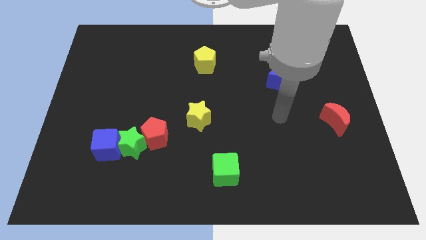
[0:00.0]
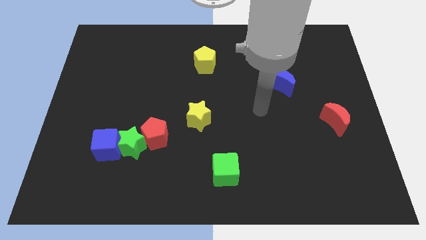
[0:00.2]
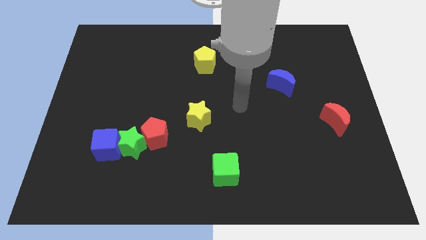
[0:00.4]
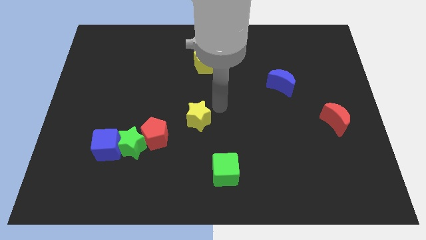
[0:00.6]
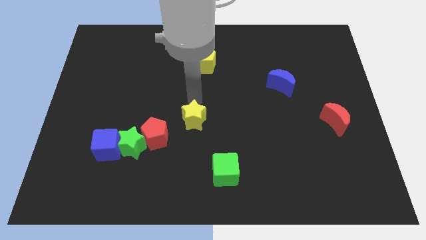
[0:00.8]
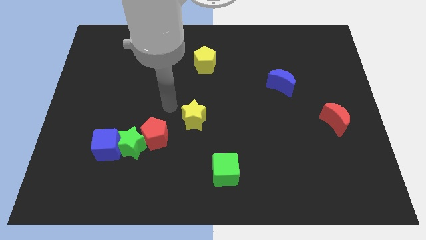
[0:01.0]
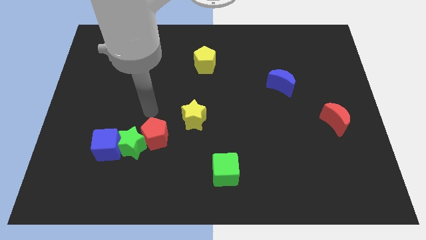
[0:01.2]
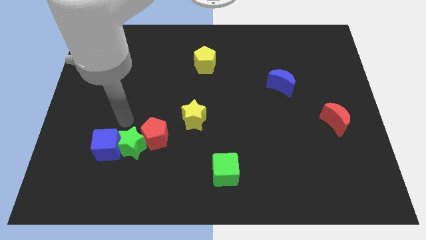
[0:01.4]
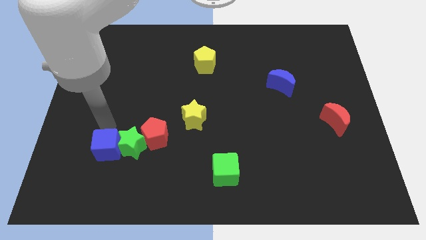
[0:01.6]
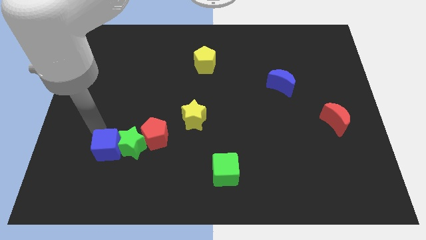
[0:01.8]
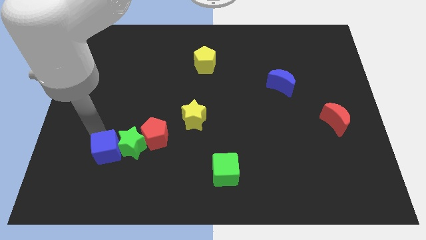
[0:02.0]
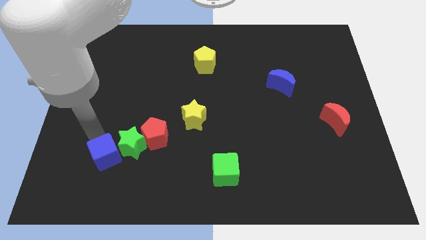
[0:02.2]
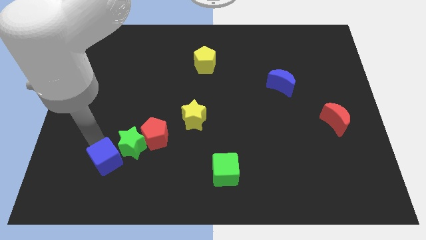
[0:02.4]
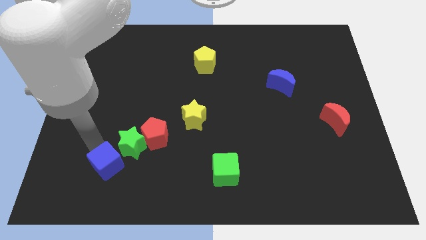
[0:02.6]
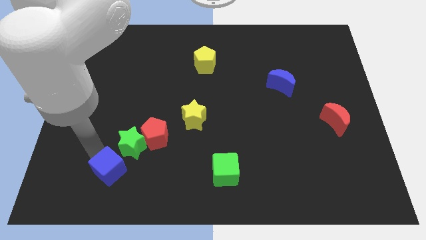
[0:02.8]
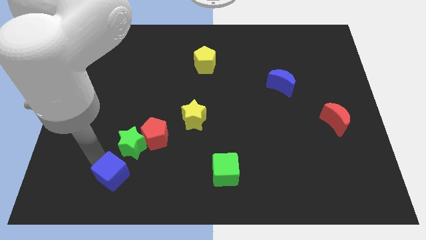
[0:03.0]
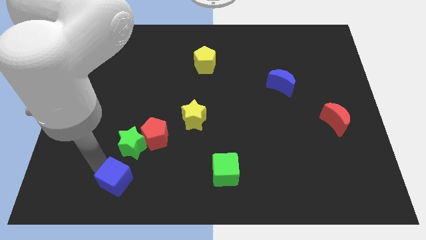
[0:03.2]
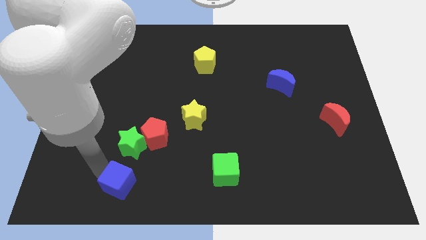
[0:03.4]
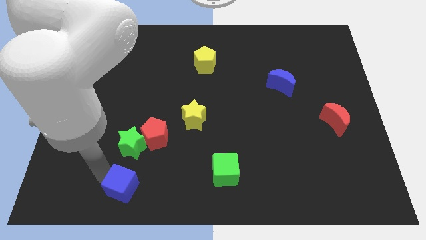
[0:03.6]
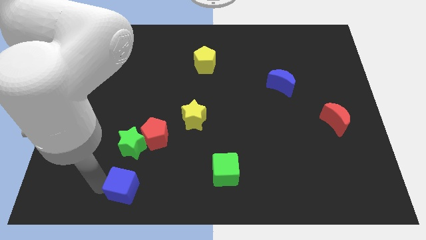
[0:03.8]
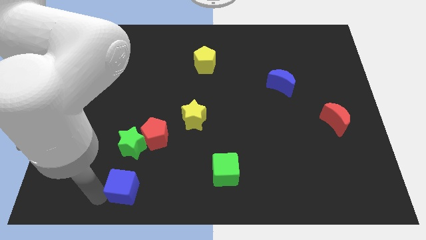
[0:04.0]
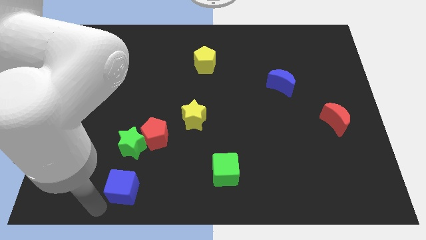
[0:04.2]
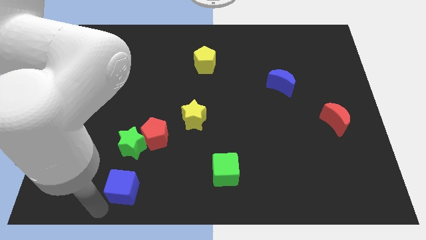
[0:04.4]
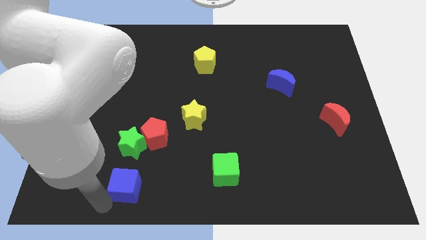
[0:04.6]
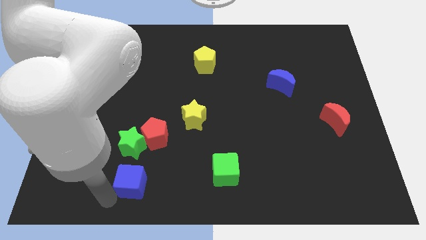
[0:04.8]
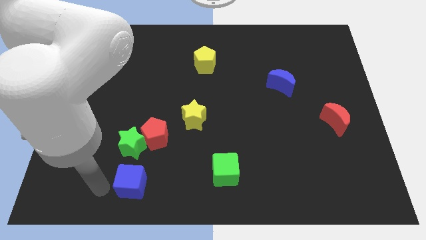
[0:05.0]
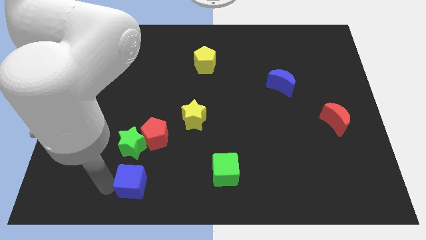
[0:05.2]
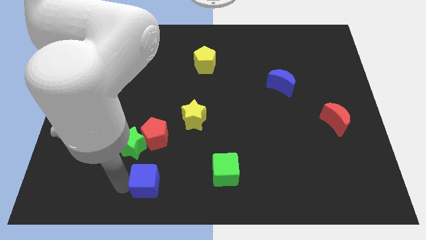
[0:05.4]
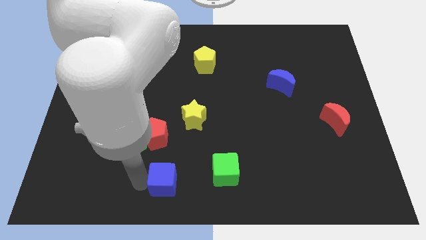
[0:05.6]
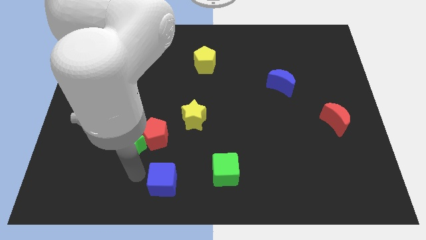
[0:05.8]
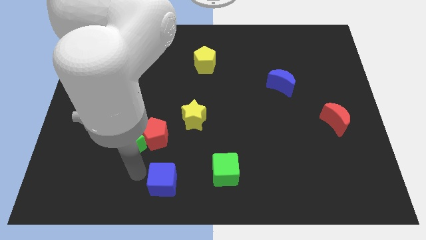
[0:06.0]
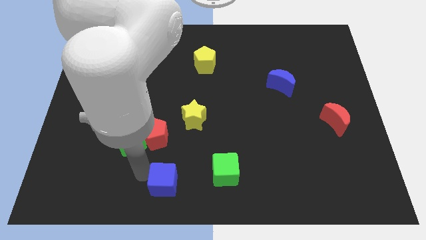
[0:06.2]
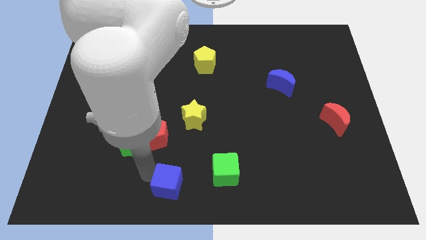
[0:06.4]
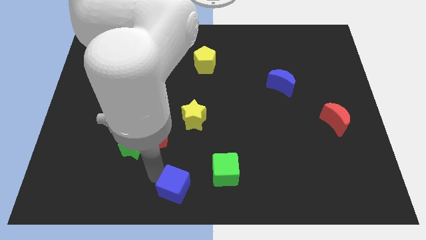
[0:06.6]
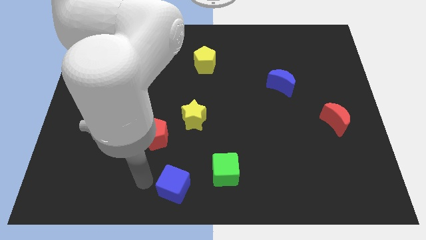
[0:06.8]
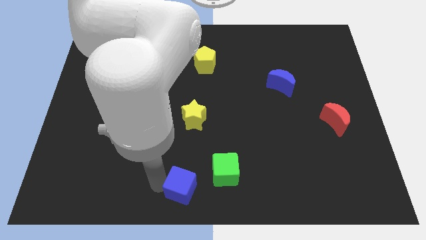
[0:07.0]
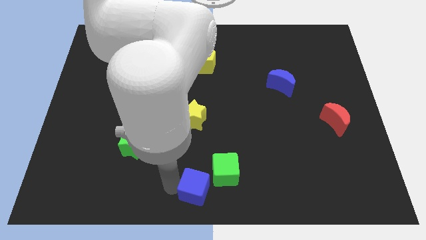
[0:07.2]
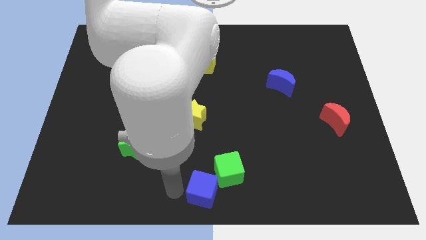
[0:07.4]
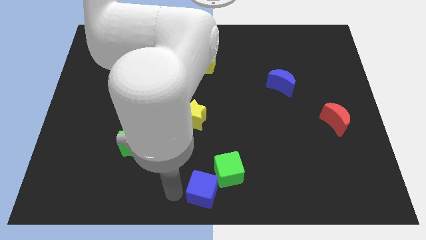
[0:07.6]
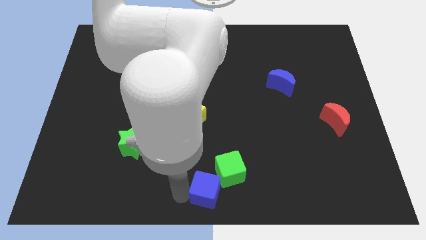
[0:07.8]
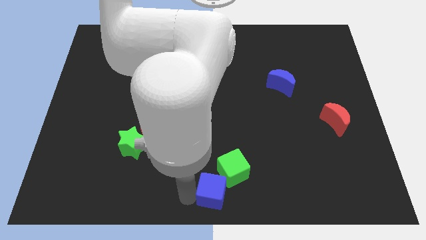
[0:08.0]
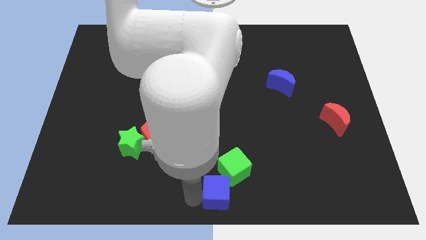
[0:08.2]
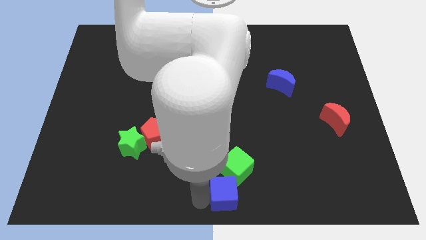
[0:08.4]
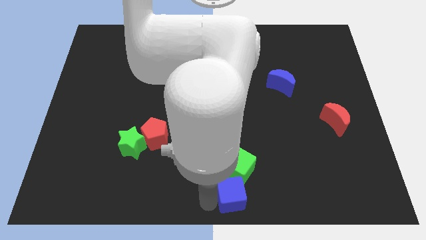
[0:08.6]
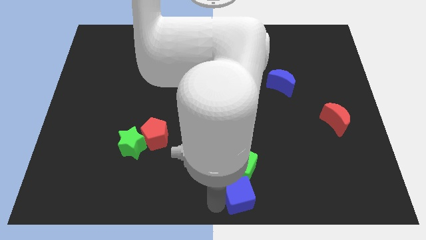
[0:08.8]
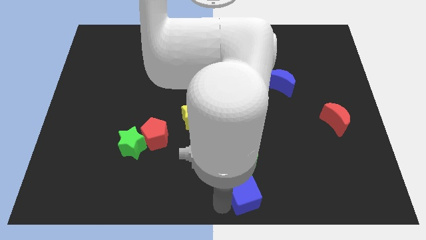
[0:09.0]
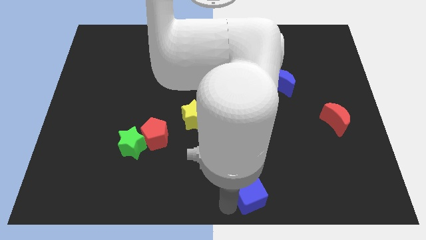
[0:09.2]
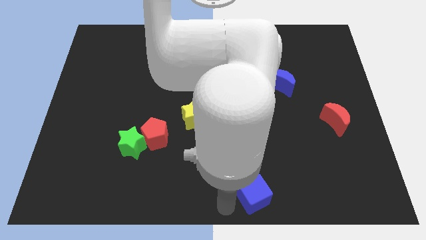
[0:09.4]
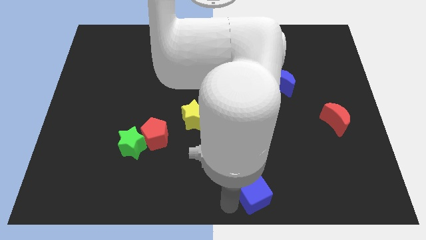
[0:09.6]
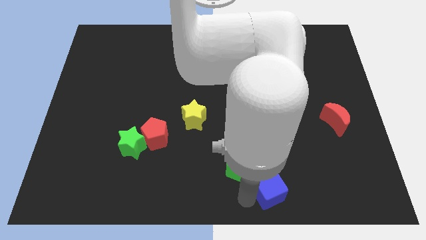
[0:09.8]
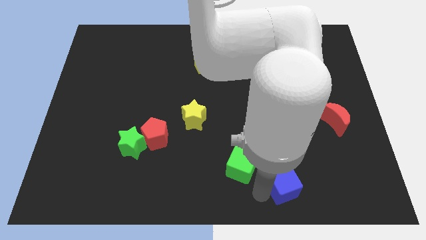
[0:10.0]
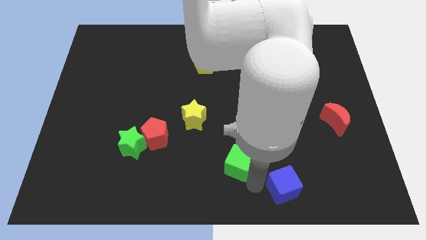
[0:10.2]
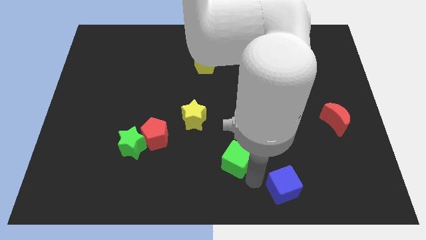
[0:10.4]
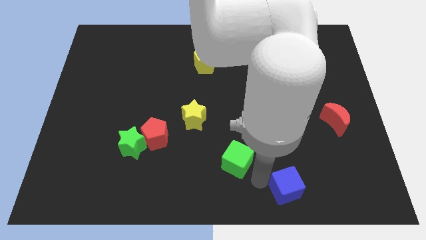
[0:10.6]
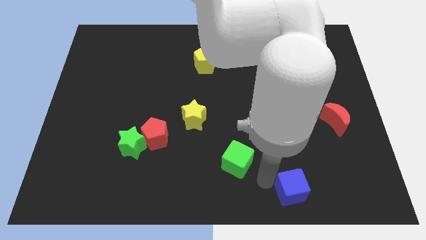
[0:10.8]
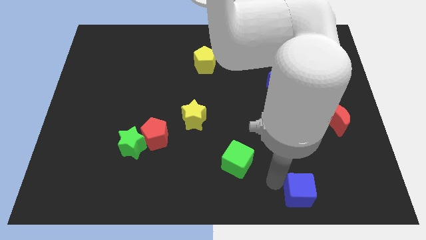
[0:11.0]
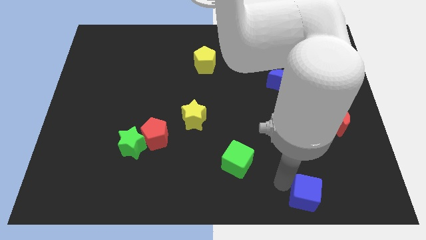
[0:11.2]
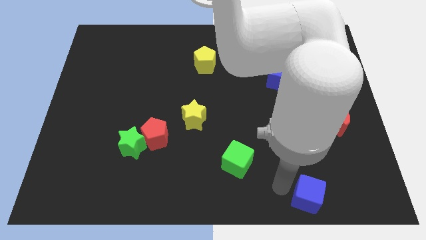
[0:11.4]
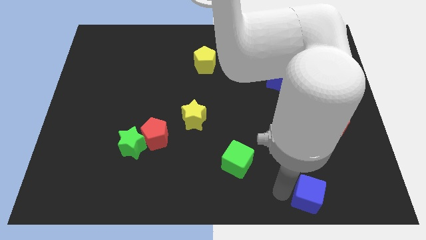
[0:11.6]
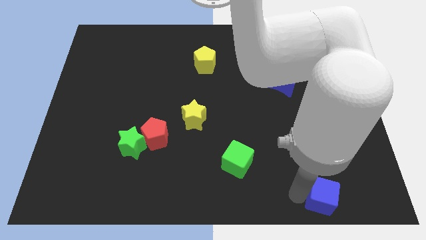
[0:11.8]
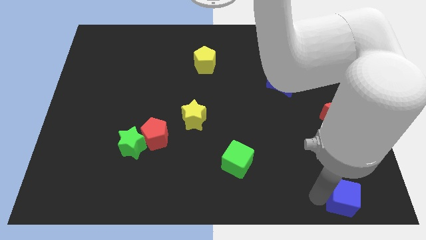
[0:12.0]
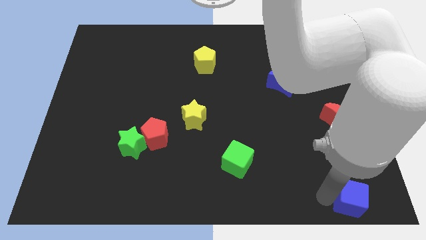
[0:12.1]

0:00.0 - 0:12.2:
push the blue cube to the bottom right
